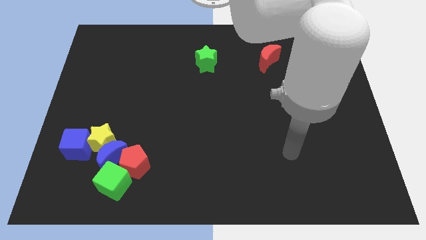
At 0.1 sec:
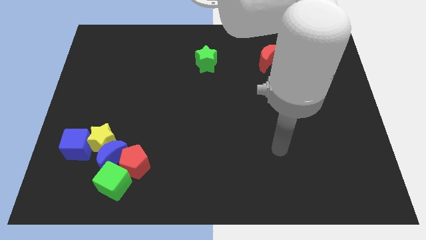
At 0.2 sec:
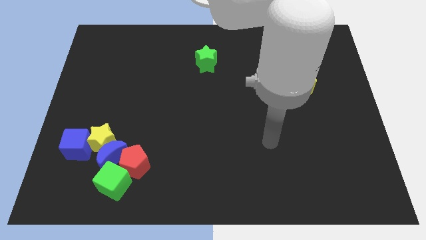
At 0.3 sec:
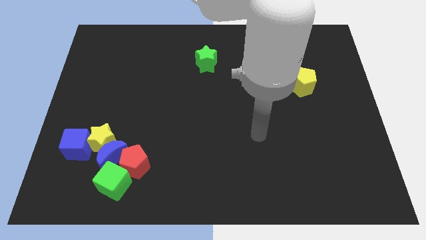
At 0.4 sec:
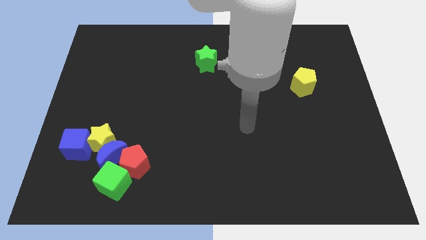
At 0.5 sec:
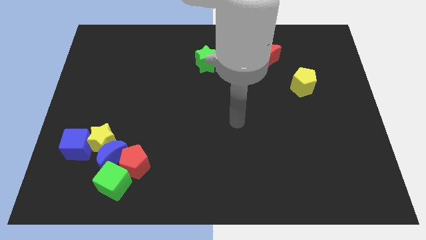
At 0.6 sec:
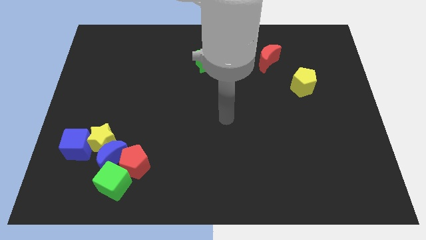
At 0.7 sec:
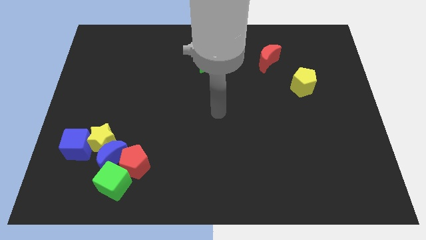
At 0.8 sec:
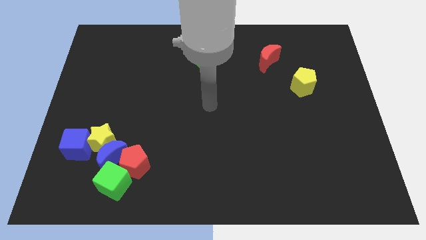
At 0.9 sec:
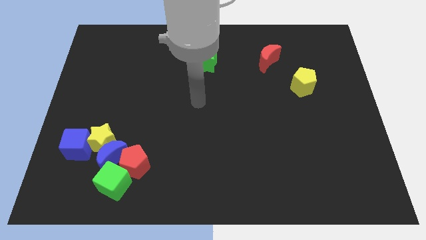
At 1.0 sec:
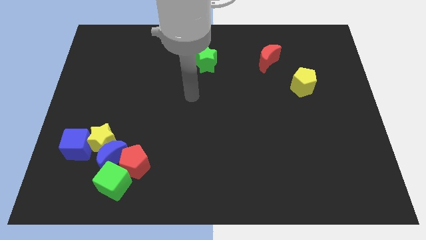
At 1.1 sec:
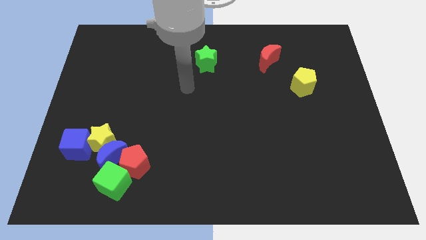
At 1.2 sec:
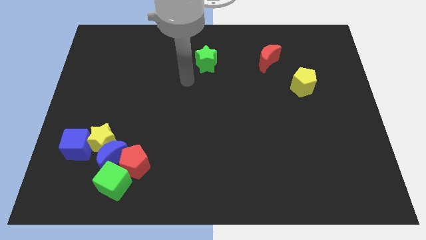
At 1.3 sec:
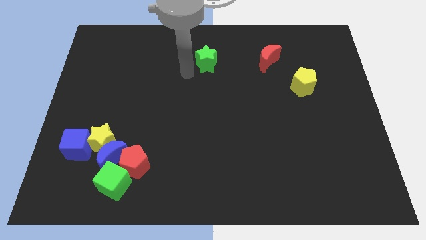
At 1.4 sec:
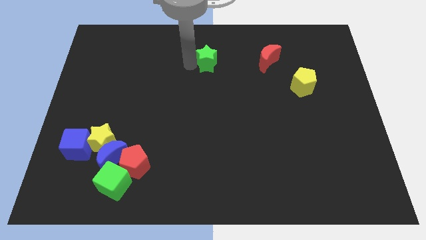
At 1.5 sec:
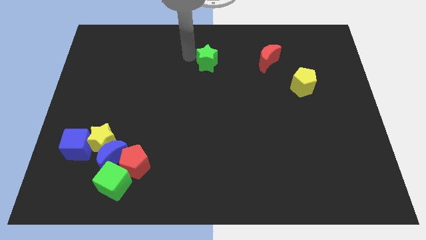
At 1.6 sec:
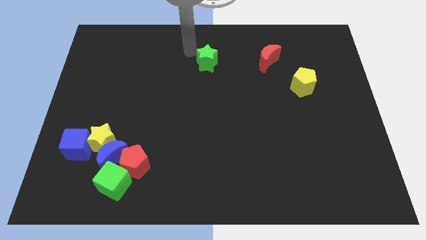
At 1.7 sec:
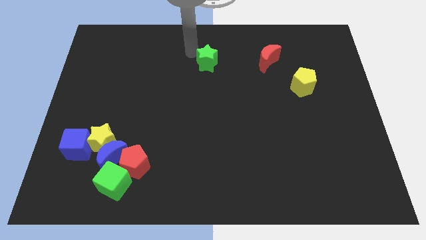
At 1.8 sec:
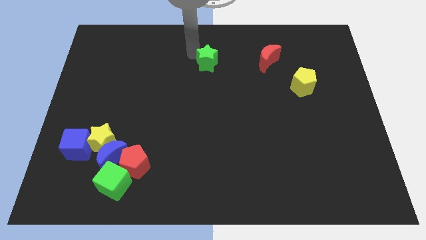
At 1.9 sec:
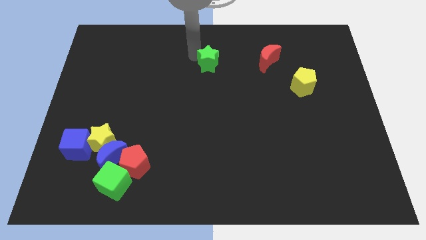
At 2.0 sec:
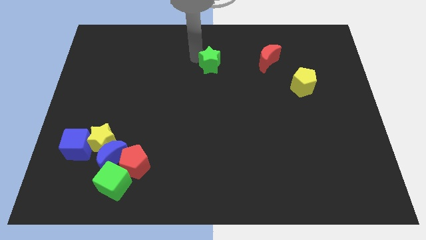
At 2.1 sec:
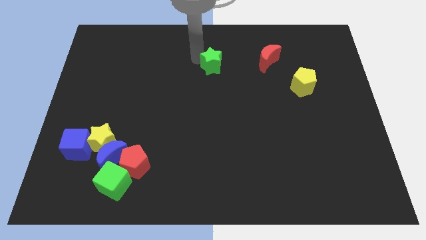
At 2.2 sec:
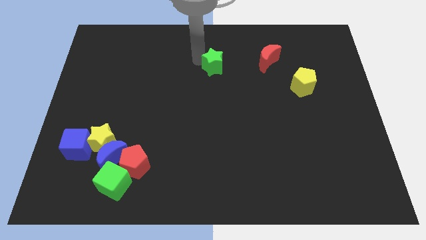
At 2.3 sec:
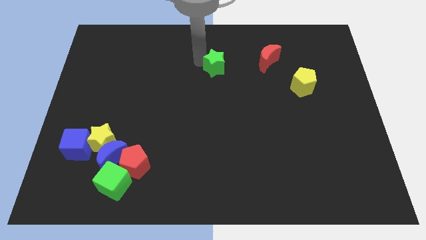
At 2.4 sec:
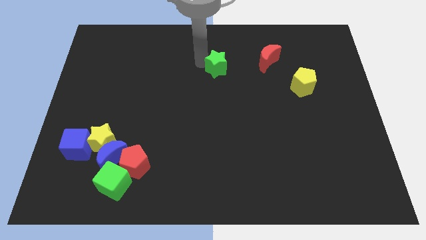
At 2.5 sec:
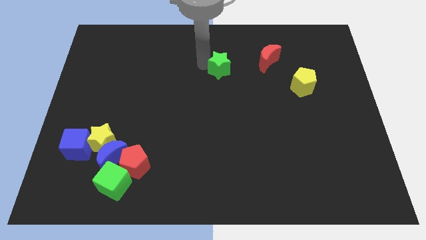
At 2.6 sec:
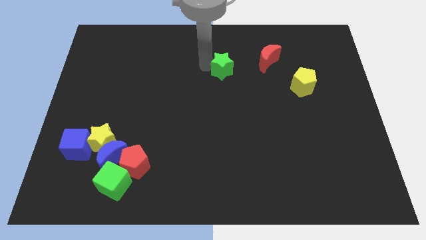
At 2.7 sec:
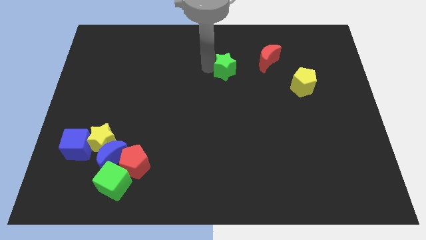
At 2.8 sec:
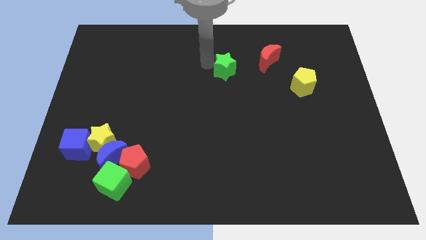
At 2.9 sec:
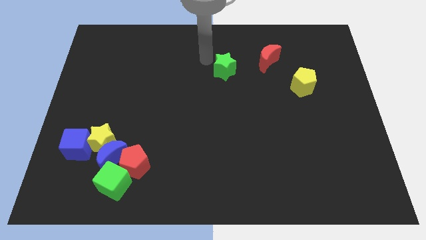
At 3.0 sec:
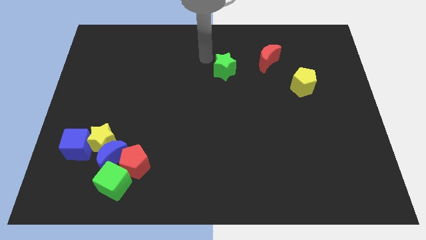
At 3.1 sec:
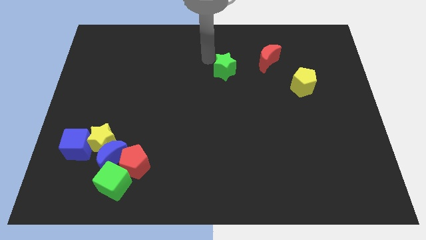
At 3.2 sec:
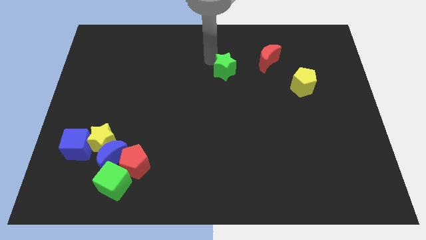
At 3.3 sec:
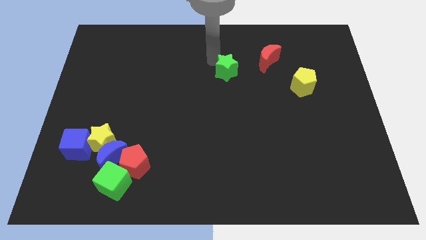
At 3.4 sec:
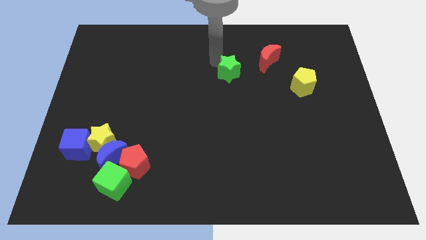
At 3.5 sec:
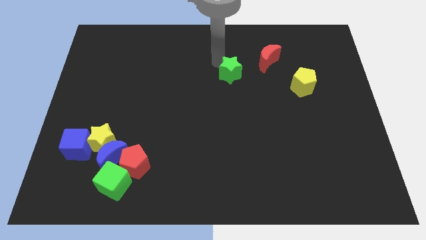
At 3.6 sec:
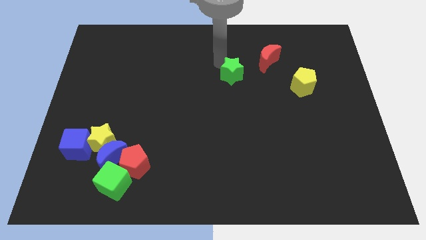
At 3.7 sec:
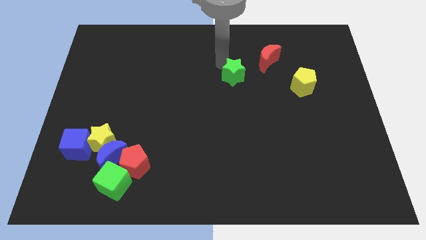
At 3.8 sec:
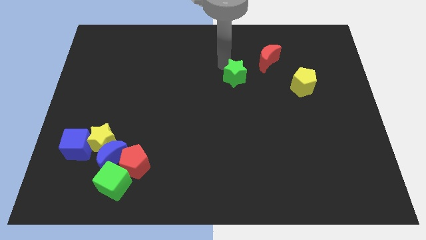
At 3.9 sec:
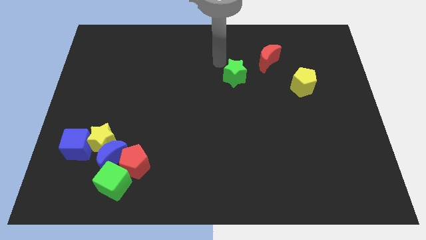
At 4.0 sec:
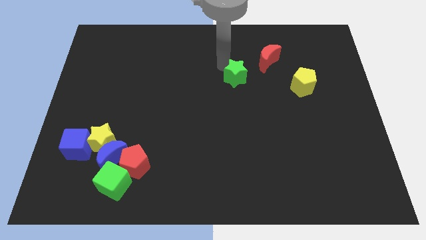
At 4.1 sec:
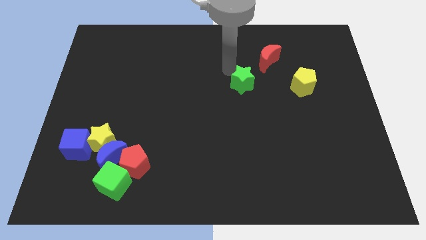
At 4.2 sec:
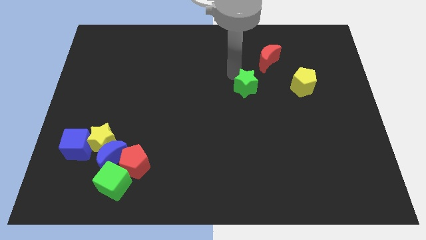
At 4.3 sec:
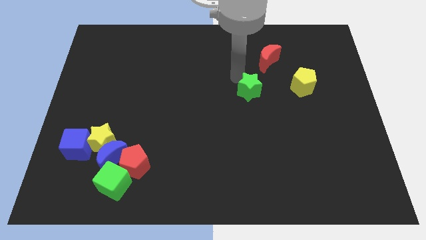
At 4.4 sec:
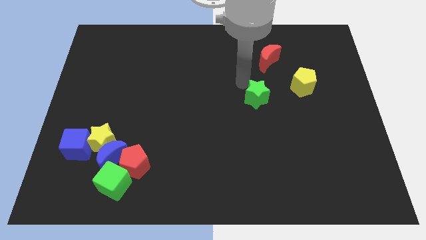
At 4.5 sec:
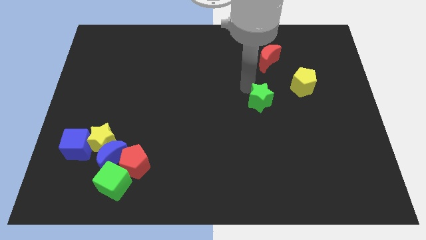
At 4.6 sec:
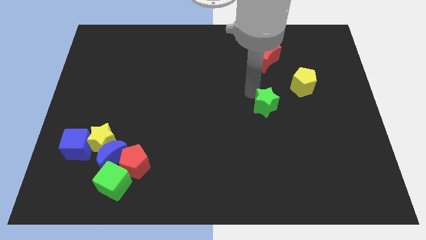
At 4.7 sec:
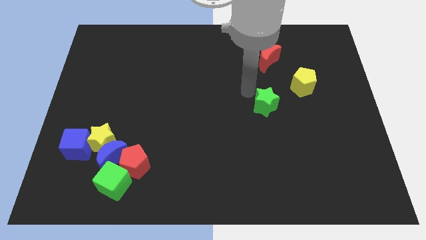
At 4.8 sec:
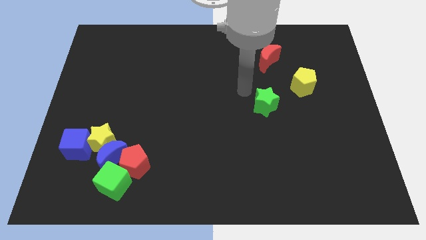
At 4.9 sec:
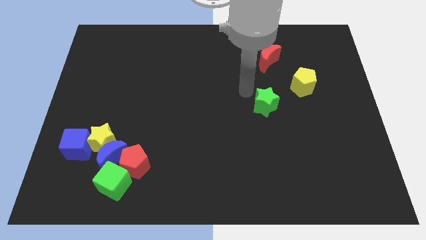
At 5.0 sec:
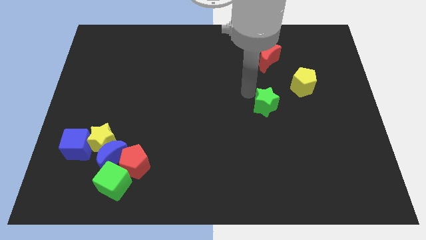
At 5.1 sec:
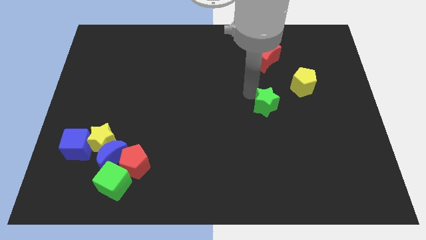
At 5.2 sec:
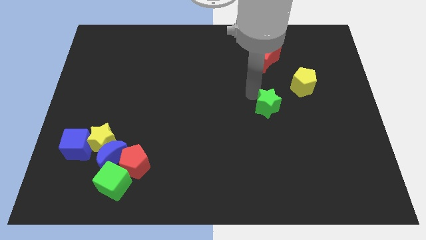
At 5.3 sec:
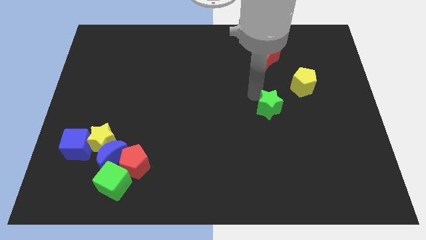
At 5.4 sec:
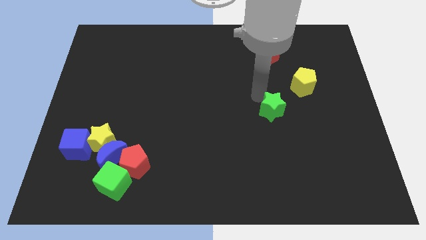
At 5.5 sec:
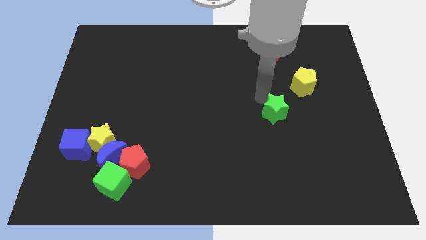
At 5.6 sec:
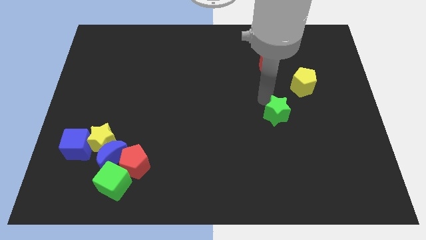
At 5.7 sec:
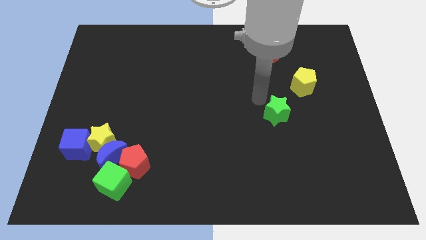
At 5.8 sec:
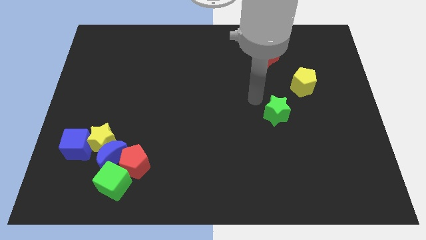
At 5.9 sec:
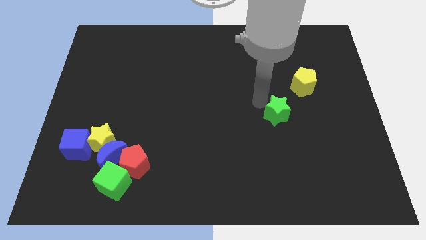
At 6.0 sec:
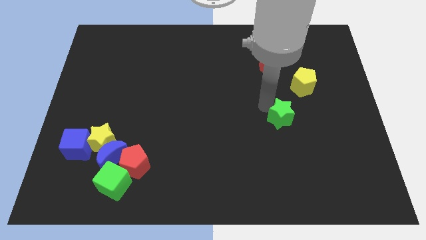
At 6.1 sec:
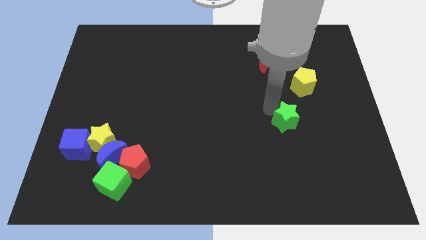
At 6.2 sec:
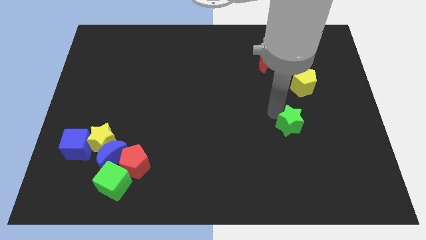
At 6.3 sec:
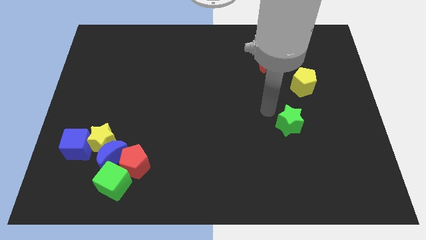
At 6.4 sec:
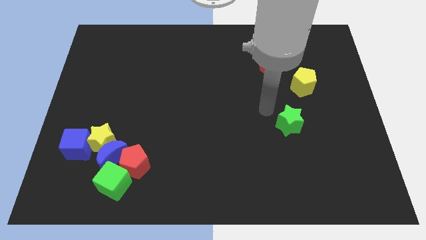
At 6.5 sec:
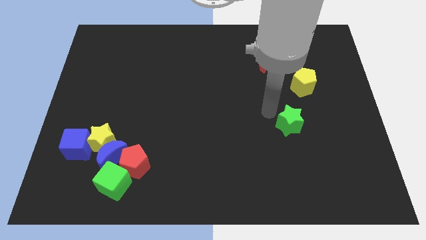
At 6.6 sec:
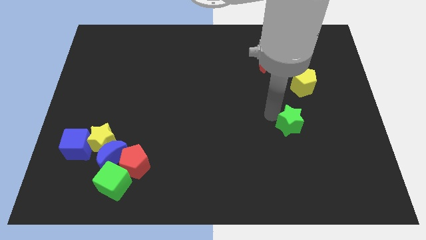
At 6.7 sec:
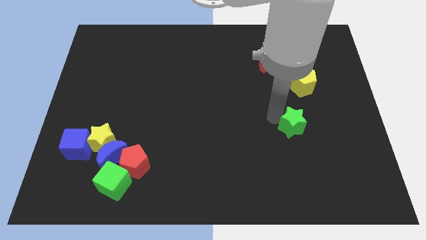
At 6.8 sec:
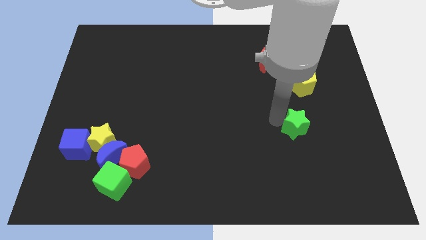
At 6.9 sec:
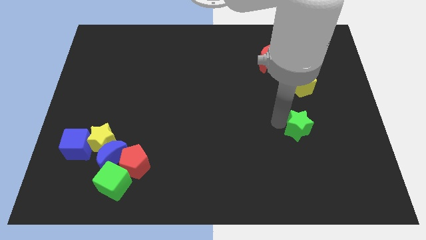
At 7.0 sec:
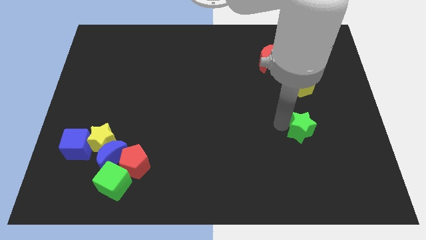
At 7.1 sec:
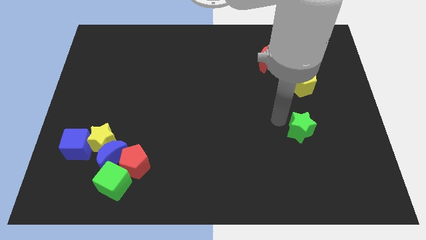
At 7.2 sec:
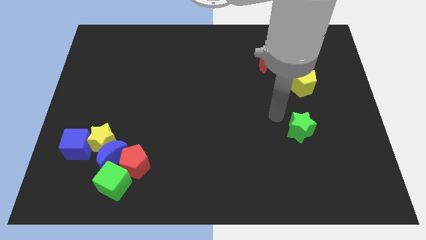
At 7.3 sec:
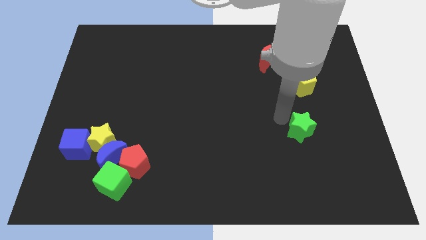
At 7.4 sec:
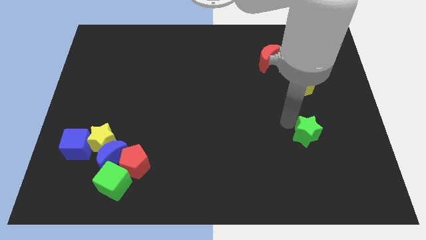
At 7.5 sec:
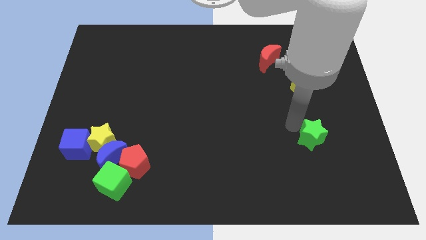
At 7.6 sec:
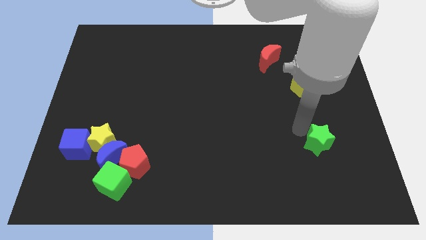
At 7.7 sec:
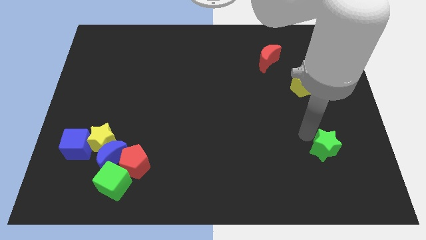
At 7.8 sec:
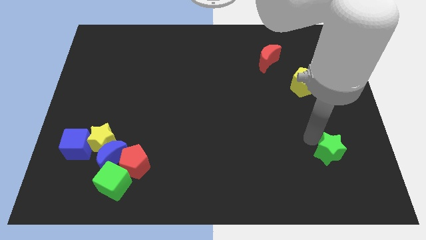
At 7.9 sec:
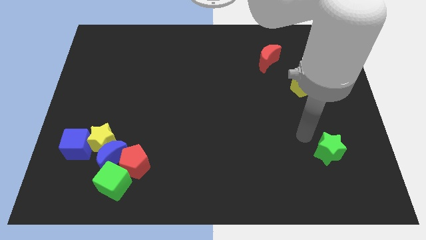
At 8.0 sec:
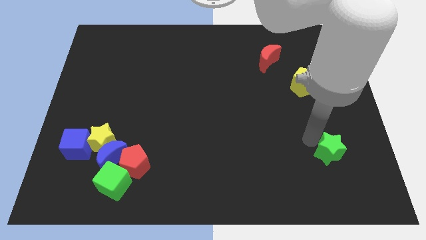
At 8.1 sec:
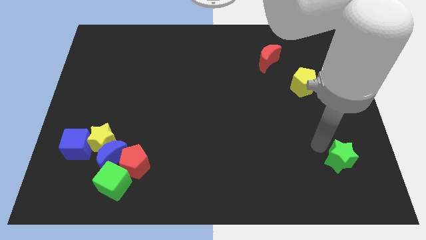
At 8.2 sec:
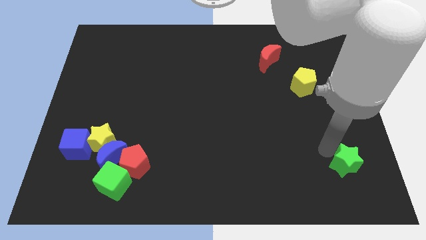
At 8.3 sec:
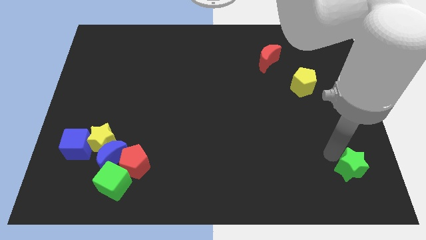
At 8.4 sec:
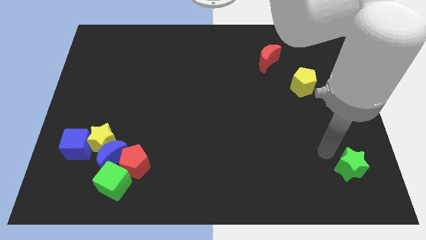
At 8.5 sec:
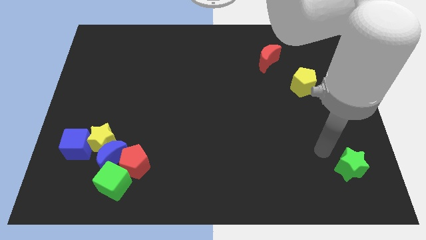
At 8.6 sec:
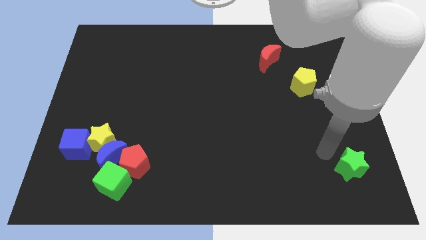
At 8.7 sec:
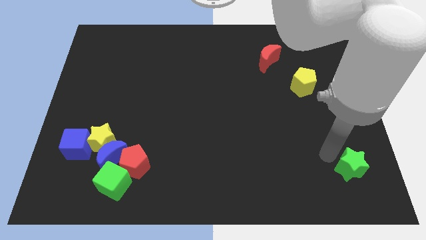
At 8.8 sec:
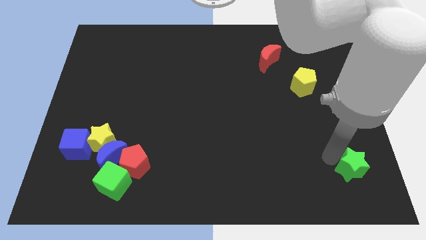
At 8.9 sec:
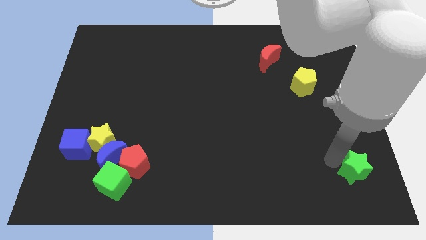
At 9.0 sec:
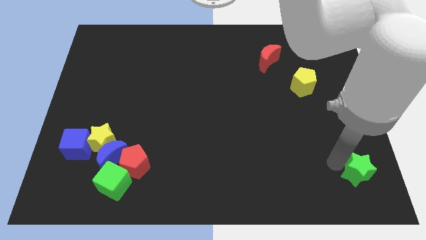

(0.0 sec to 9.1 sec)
push the green star to the bottom right
